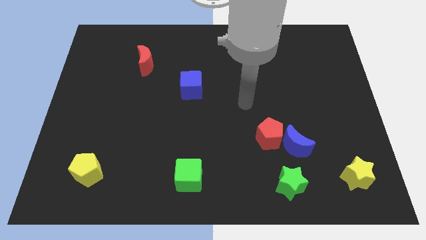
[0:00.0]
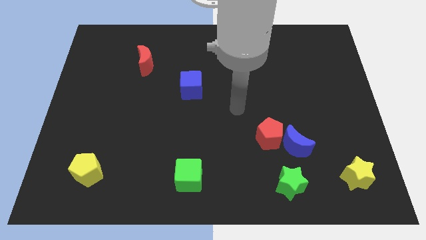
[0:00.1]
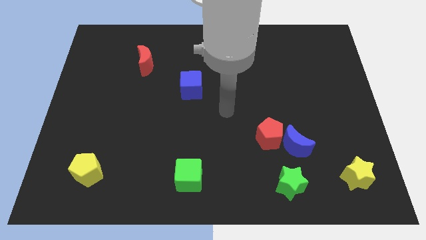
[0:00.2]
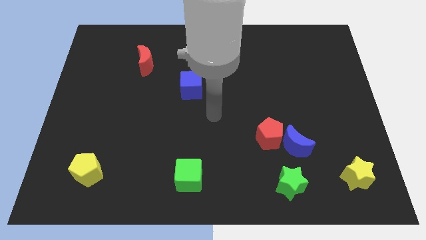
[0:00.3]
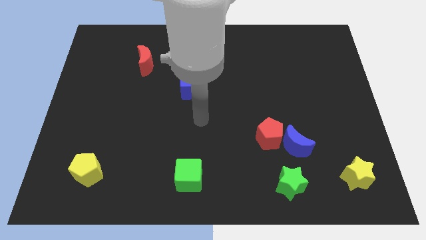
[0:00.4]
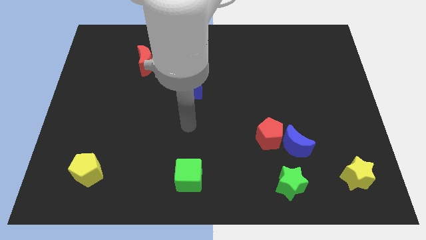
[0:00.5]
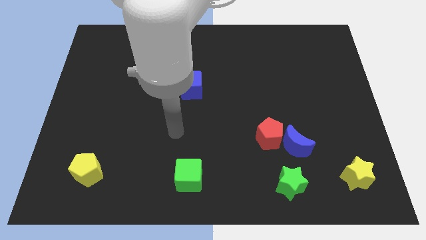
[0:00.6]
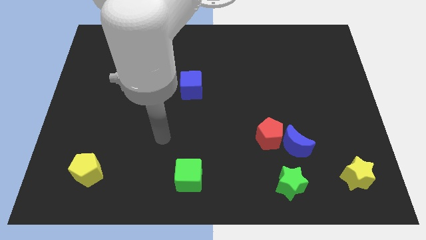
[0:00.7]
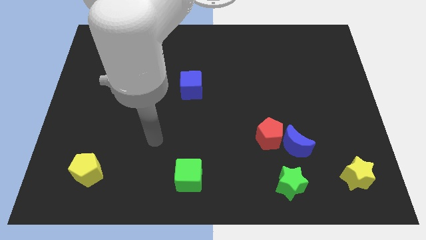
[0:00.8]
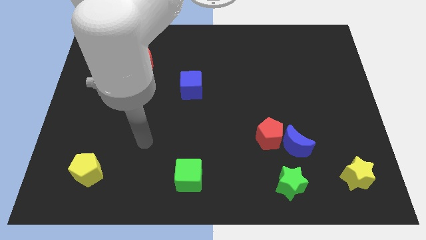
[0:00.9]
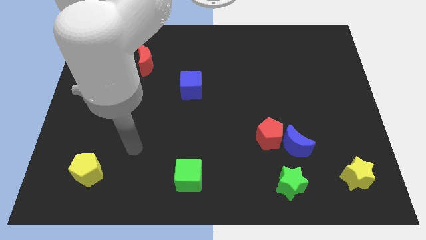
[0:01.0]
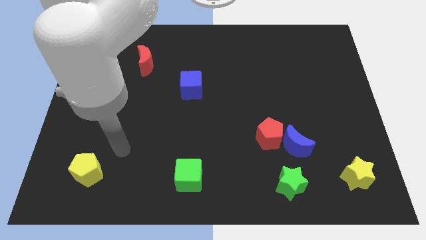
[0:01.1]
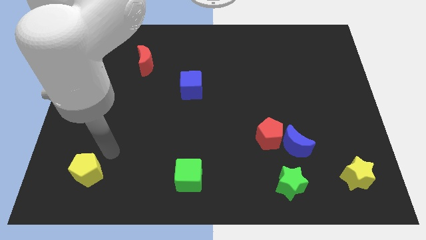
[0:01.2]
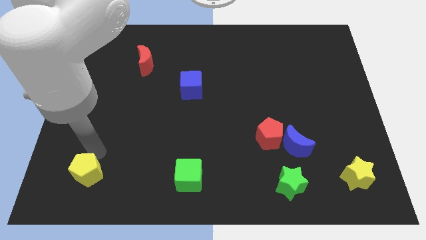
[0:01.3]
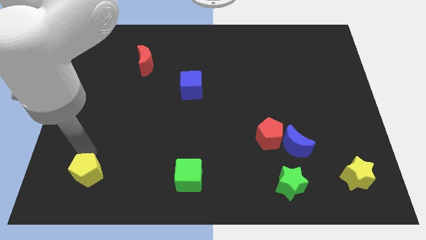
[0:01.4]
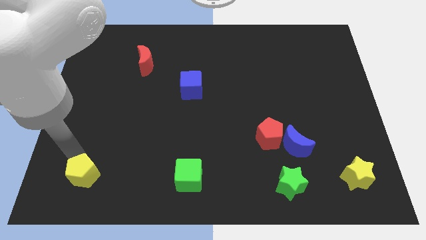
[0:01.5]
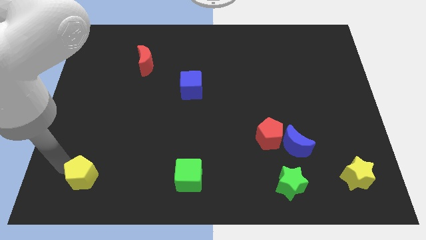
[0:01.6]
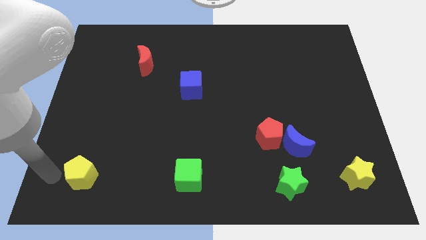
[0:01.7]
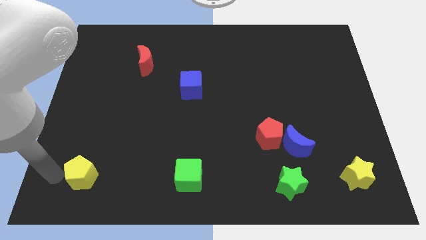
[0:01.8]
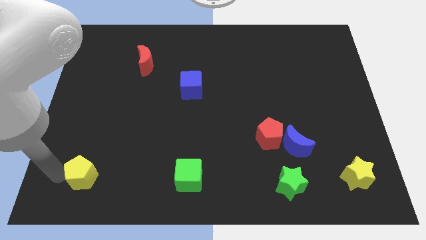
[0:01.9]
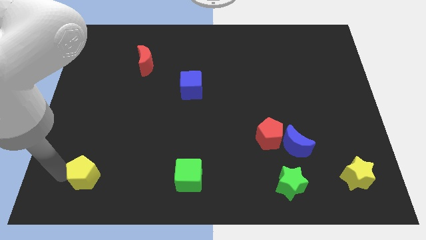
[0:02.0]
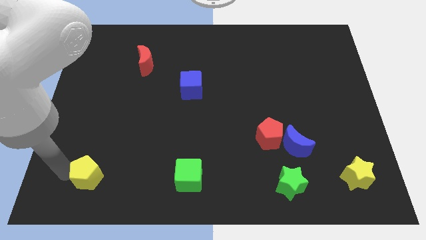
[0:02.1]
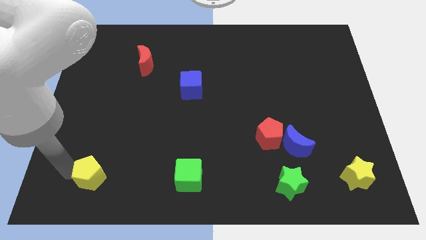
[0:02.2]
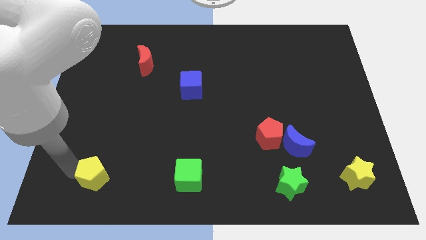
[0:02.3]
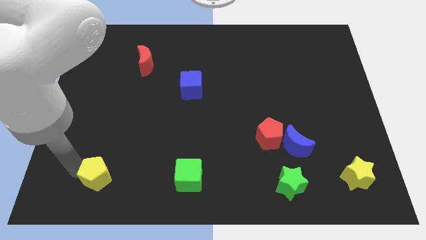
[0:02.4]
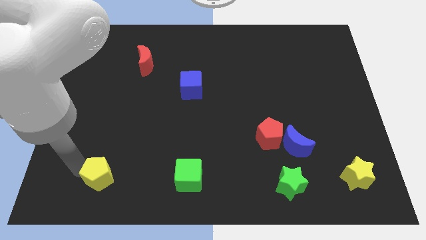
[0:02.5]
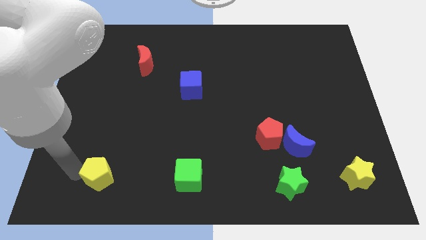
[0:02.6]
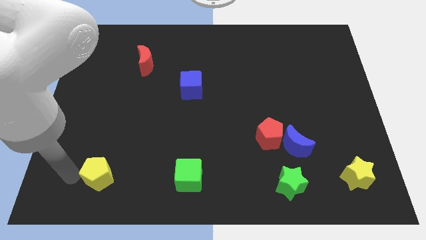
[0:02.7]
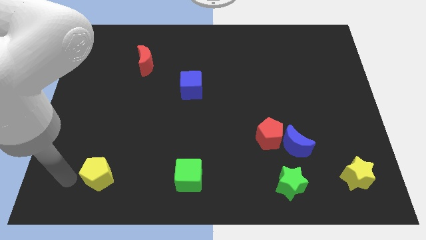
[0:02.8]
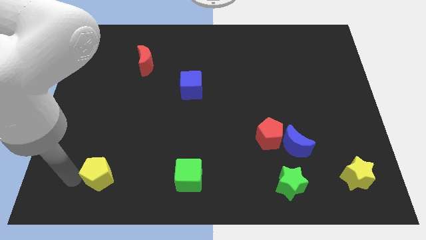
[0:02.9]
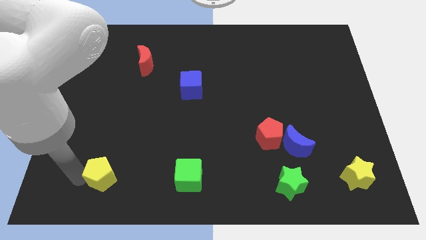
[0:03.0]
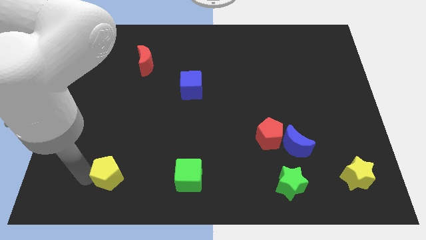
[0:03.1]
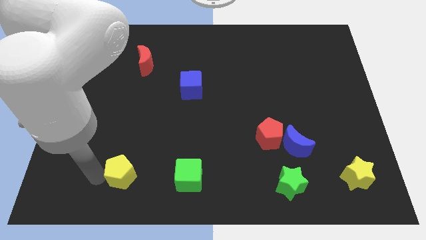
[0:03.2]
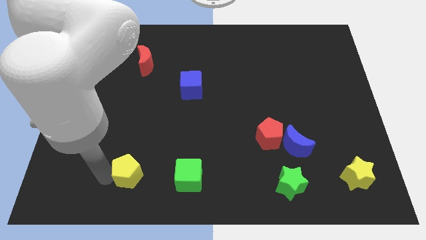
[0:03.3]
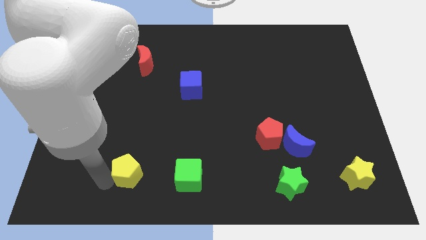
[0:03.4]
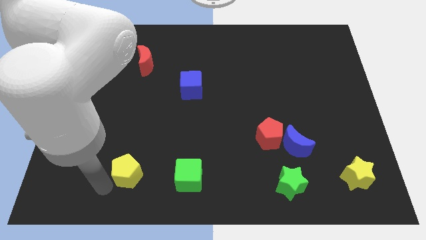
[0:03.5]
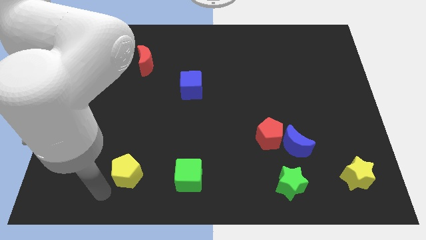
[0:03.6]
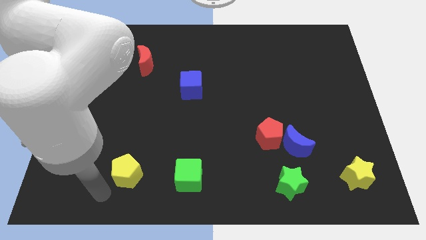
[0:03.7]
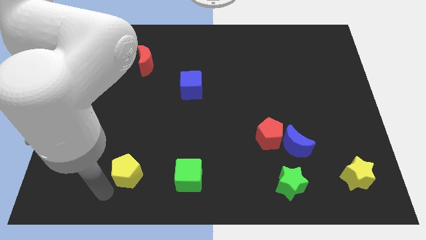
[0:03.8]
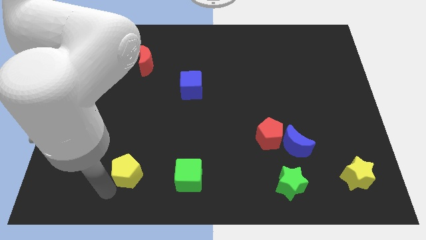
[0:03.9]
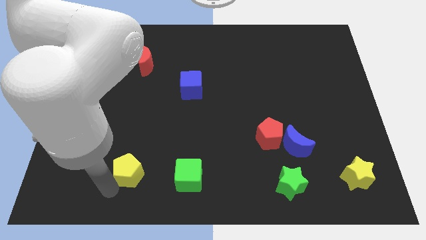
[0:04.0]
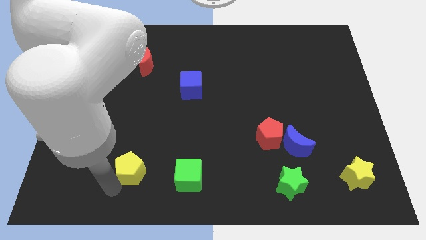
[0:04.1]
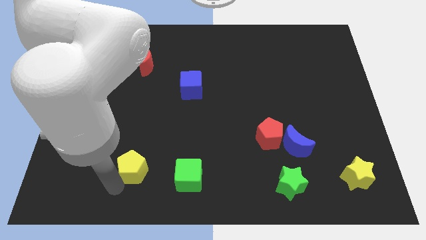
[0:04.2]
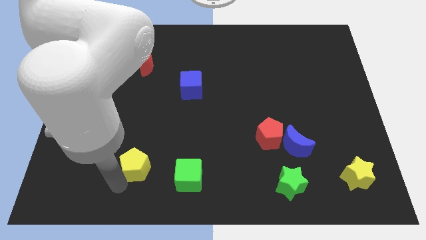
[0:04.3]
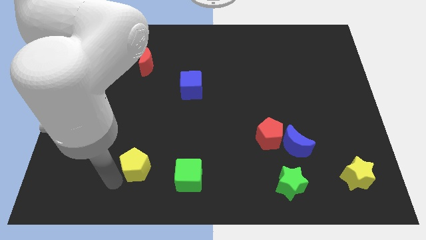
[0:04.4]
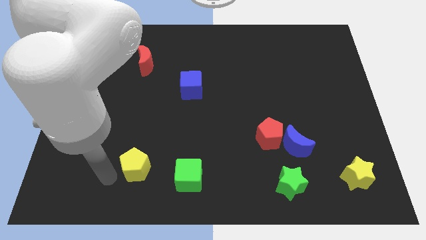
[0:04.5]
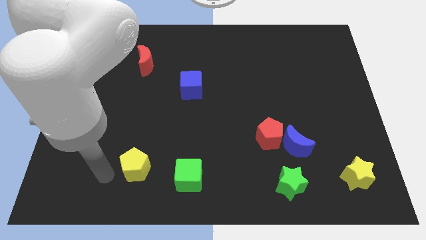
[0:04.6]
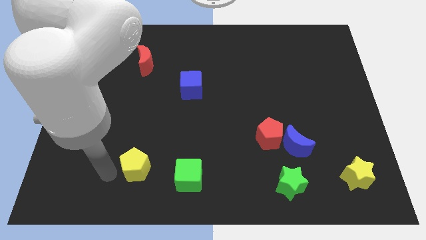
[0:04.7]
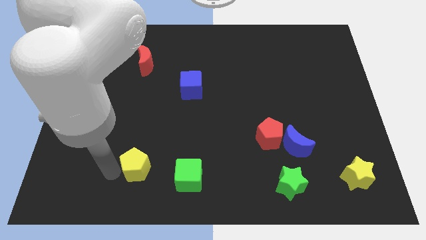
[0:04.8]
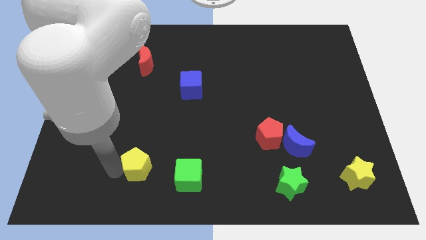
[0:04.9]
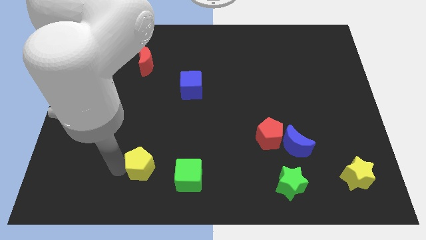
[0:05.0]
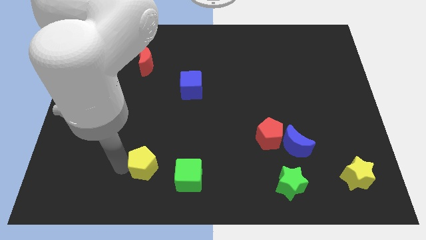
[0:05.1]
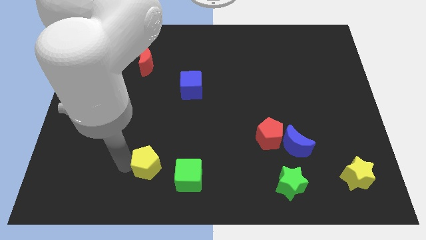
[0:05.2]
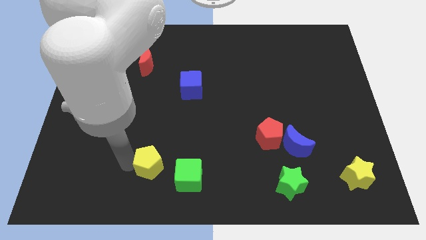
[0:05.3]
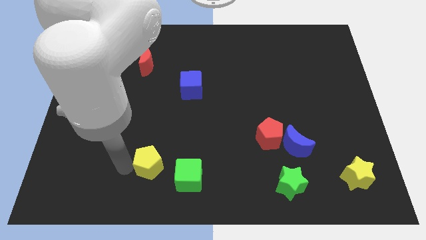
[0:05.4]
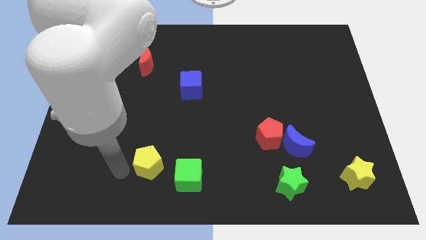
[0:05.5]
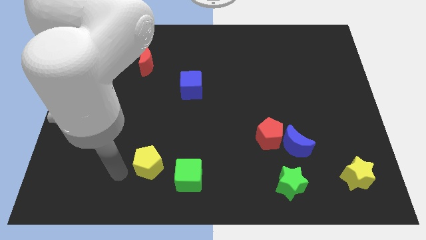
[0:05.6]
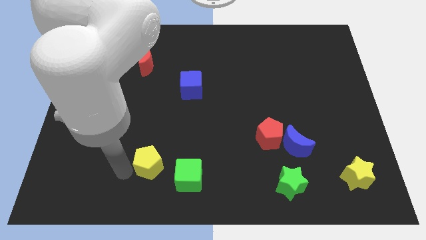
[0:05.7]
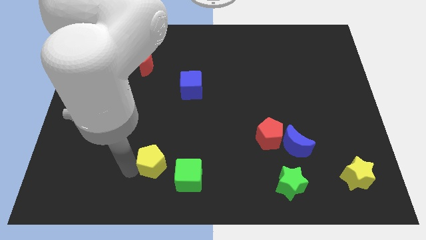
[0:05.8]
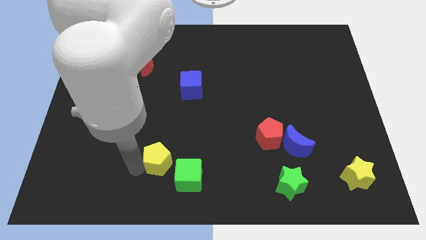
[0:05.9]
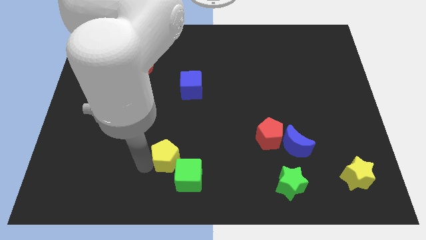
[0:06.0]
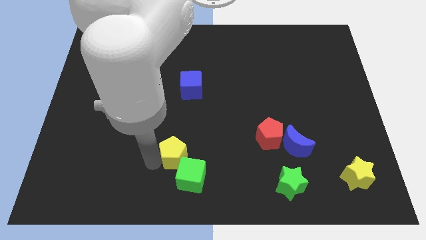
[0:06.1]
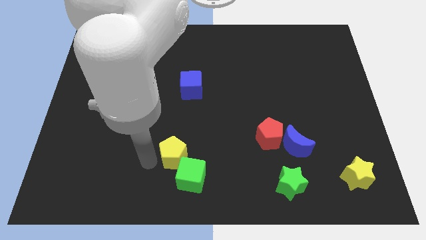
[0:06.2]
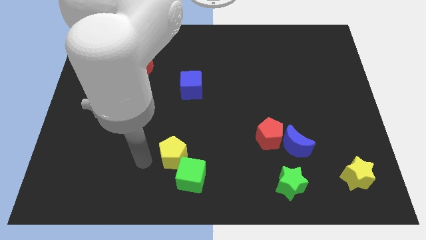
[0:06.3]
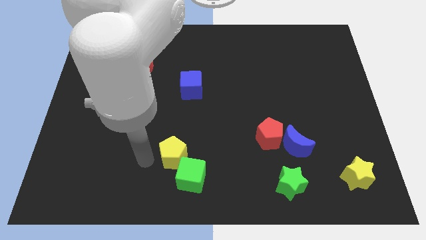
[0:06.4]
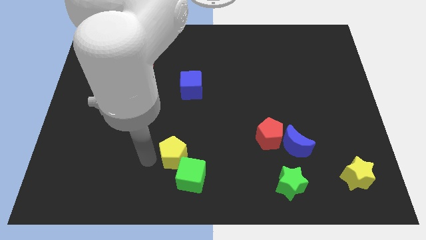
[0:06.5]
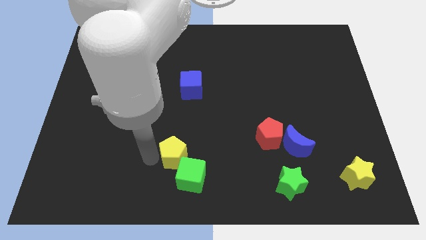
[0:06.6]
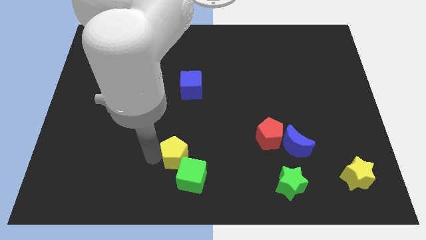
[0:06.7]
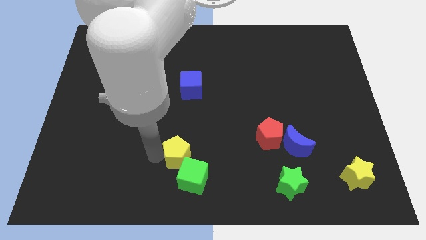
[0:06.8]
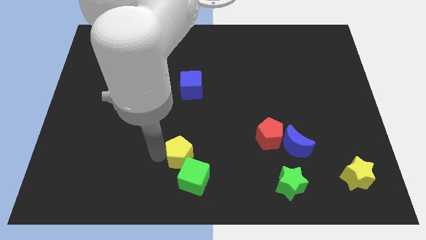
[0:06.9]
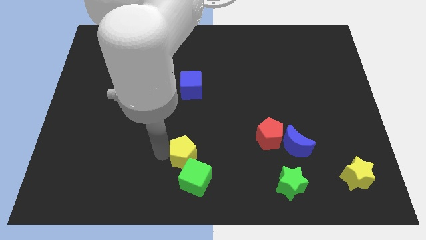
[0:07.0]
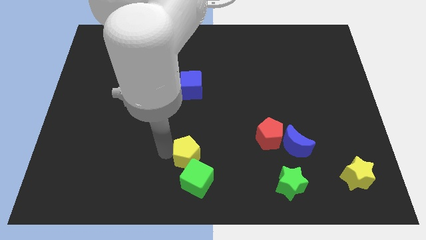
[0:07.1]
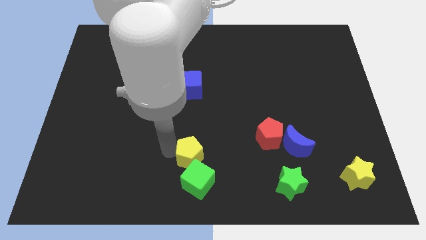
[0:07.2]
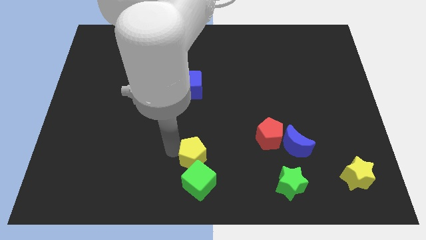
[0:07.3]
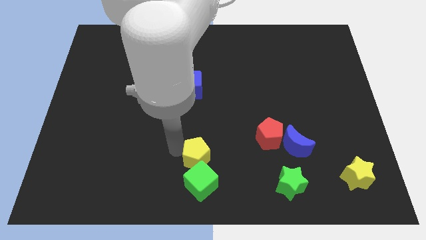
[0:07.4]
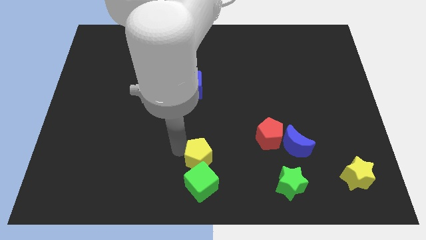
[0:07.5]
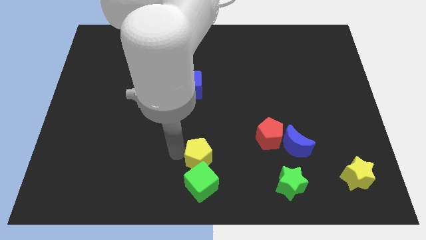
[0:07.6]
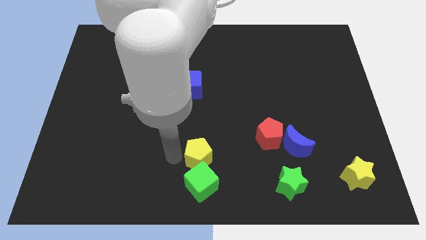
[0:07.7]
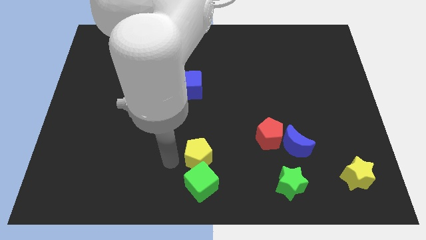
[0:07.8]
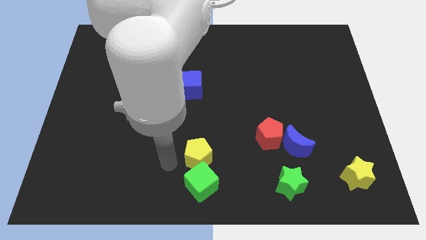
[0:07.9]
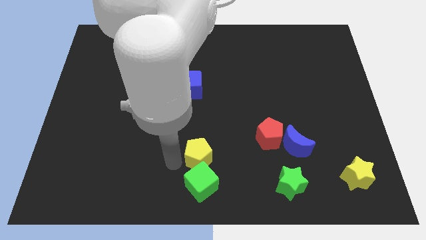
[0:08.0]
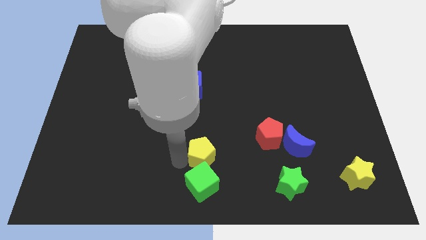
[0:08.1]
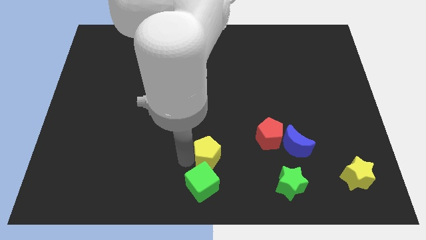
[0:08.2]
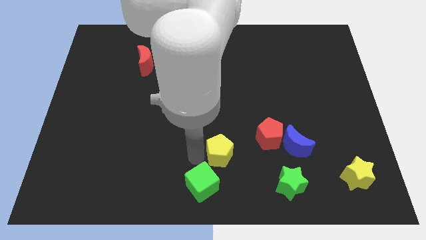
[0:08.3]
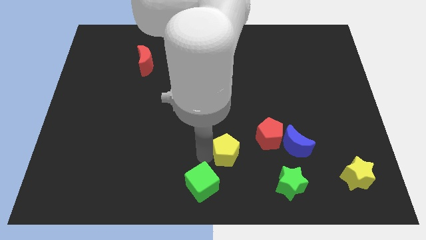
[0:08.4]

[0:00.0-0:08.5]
push the yellow pentagon to the left of the blue moon

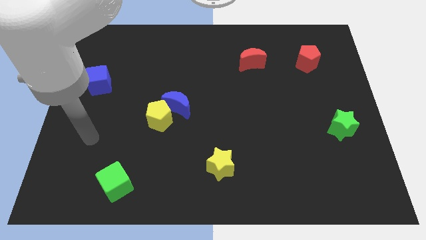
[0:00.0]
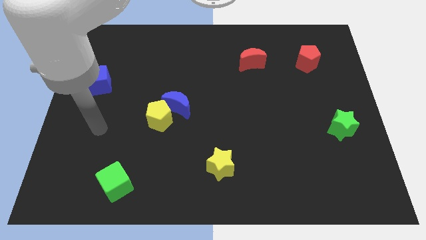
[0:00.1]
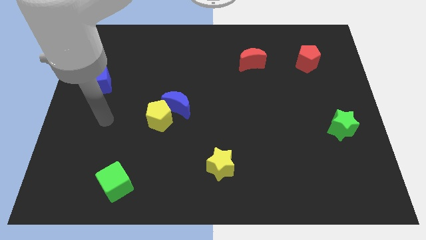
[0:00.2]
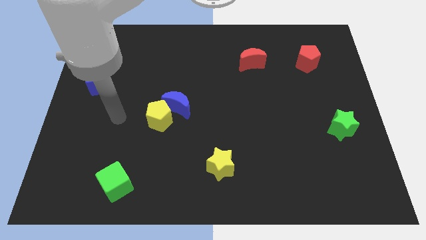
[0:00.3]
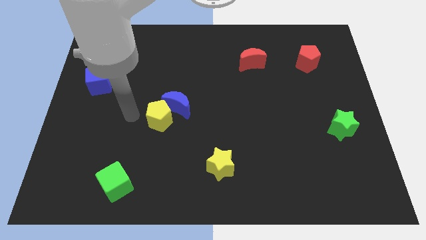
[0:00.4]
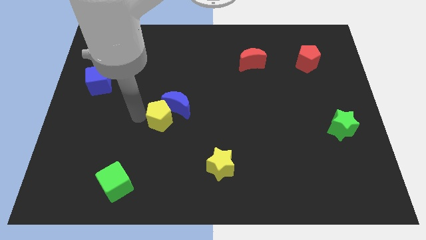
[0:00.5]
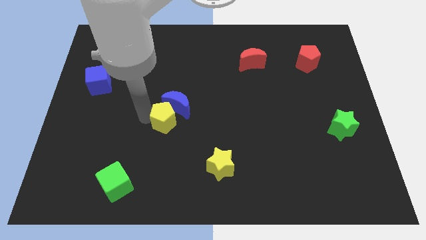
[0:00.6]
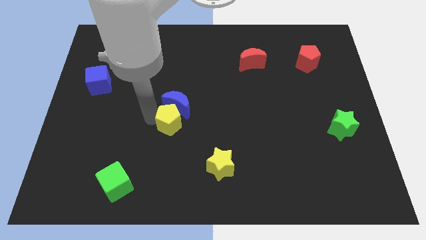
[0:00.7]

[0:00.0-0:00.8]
push the yellow pentagon to the bottom right side of the blue moon
